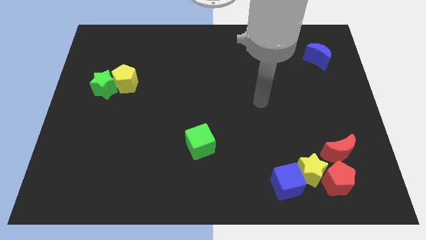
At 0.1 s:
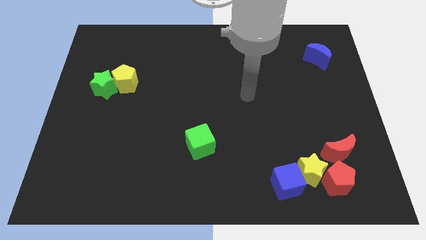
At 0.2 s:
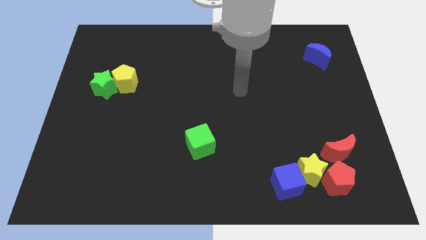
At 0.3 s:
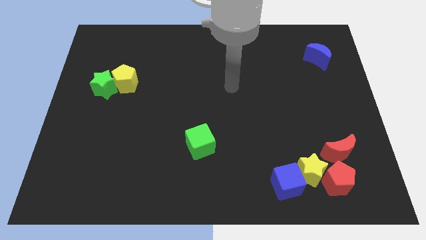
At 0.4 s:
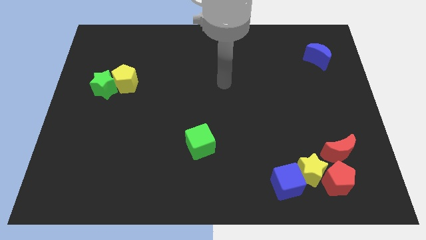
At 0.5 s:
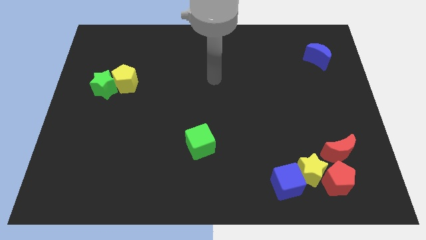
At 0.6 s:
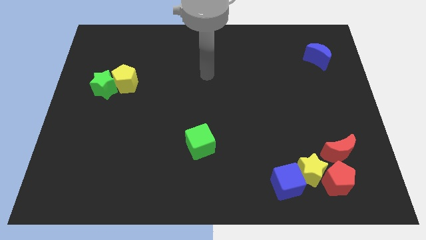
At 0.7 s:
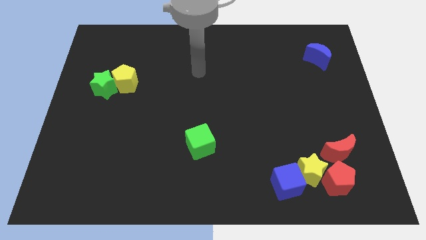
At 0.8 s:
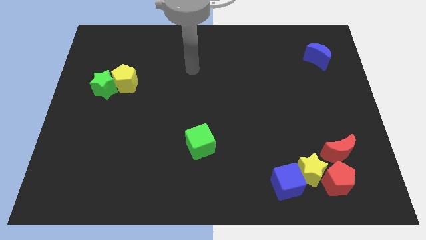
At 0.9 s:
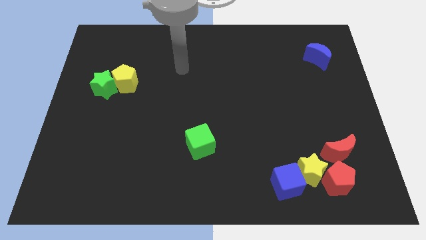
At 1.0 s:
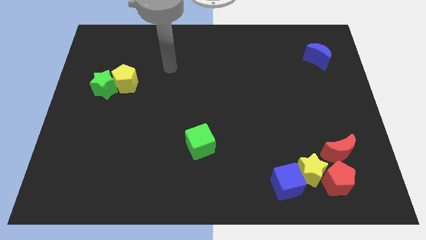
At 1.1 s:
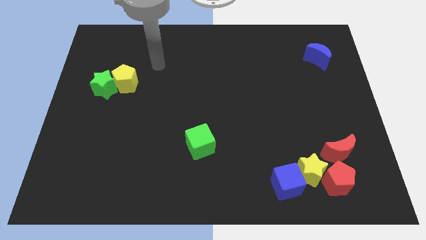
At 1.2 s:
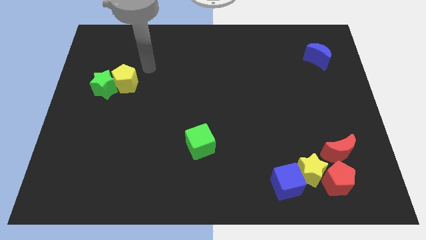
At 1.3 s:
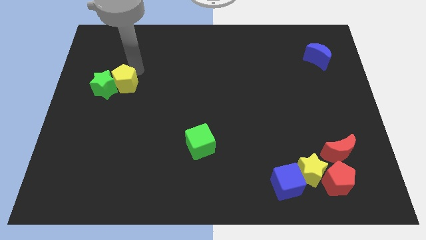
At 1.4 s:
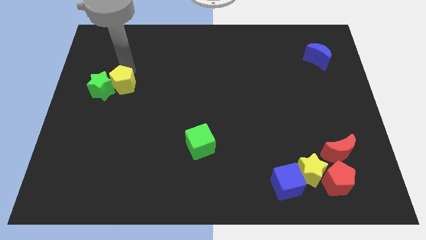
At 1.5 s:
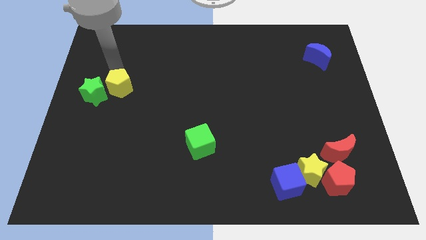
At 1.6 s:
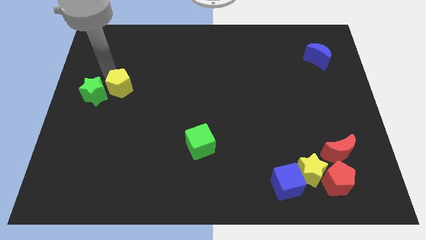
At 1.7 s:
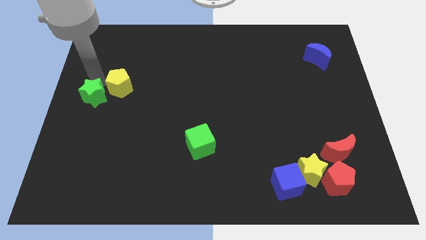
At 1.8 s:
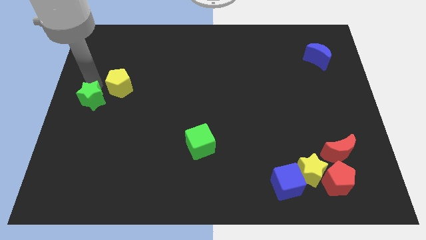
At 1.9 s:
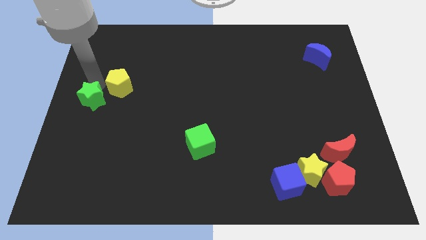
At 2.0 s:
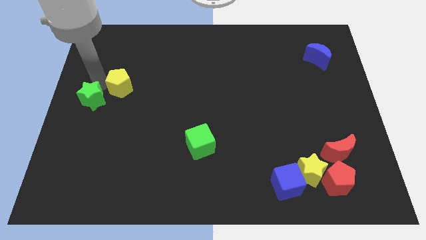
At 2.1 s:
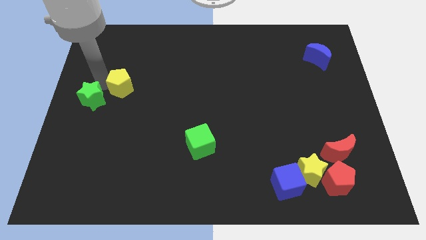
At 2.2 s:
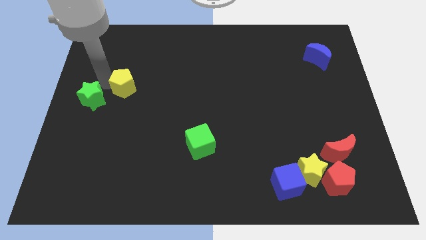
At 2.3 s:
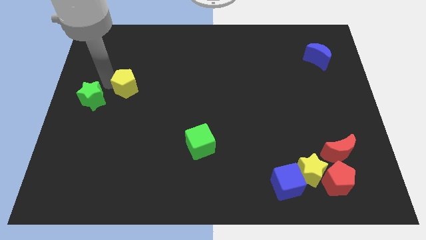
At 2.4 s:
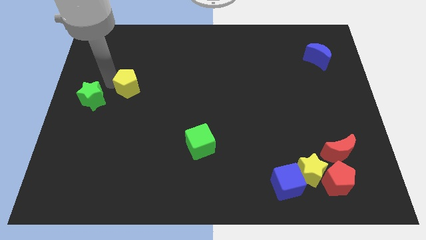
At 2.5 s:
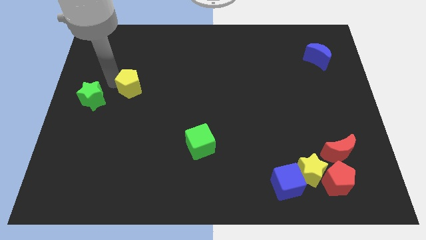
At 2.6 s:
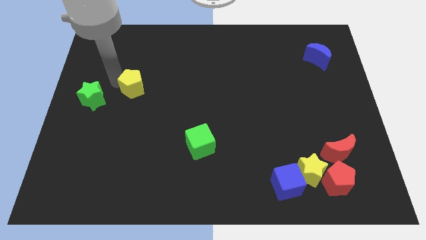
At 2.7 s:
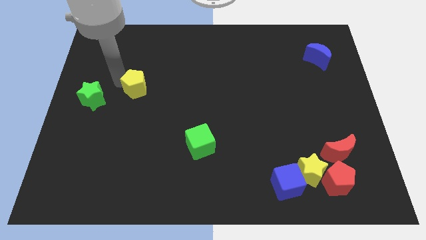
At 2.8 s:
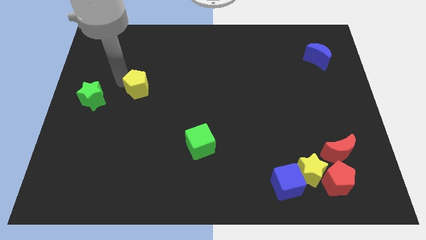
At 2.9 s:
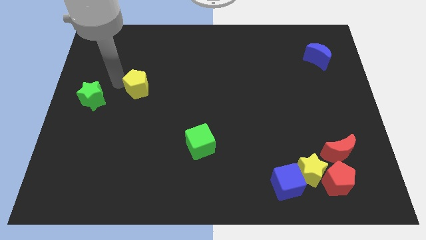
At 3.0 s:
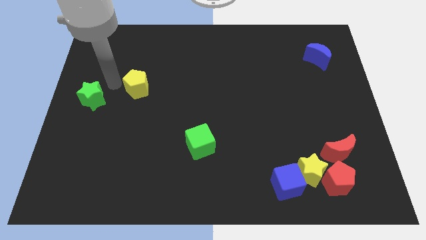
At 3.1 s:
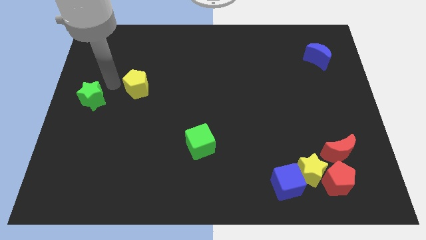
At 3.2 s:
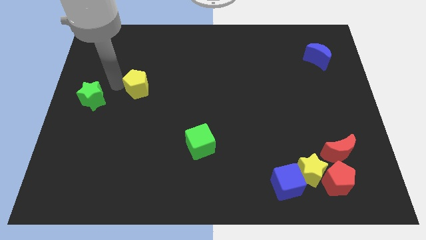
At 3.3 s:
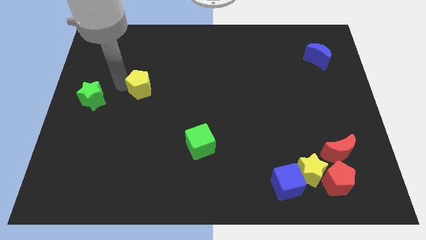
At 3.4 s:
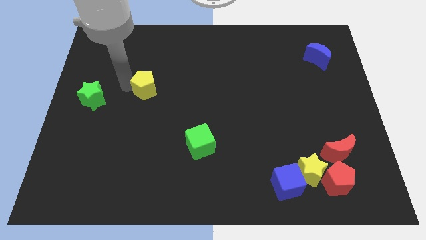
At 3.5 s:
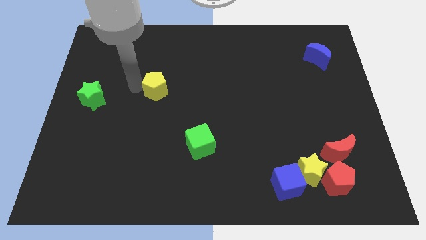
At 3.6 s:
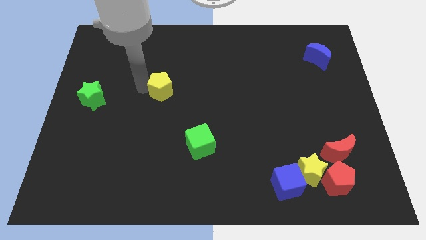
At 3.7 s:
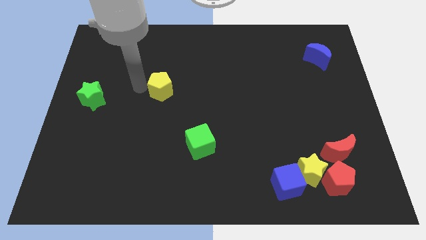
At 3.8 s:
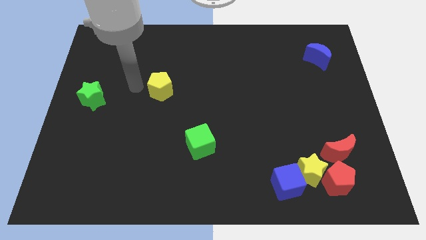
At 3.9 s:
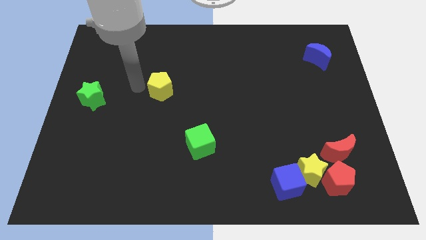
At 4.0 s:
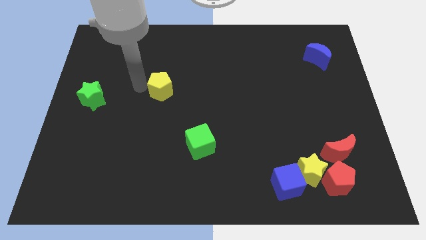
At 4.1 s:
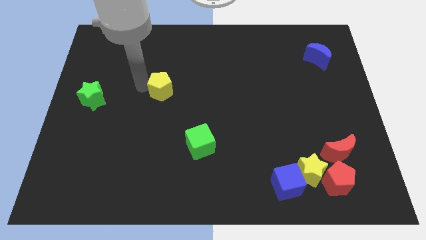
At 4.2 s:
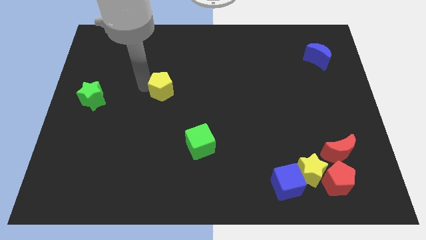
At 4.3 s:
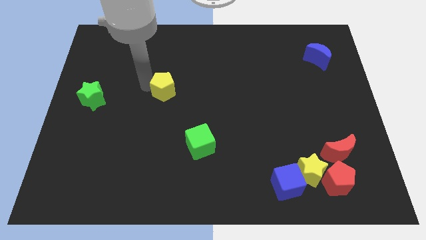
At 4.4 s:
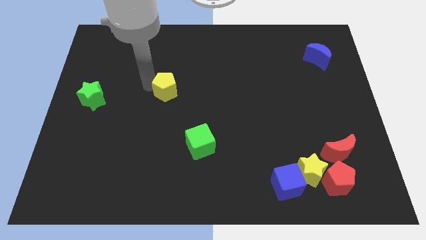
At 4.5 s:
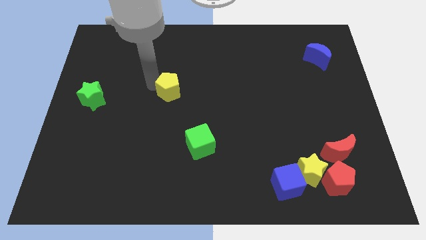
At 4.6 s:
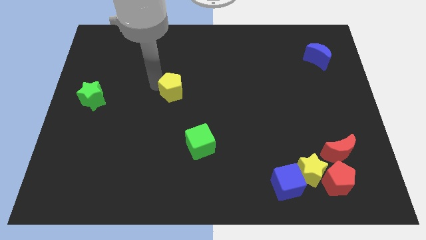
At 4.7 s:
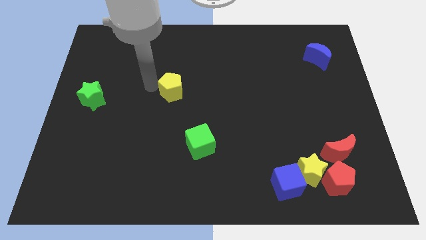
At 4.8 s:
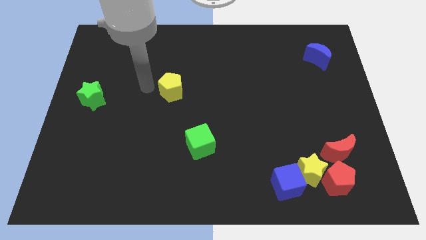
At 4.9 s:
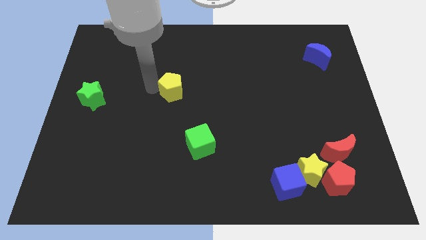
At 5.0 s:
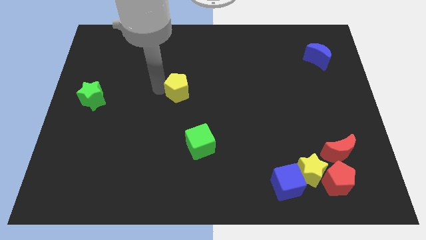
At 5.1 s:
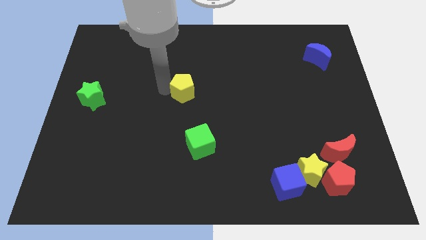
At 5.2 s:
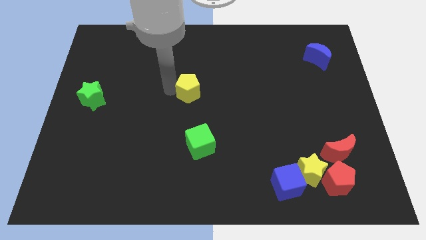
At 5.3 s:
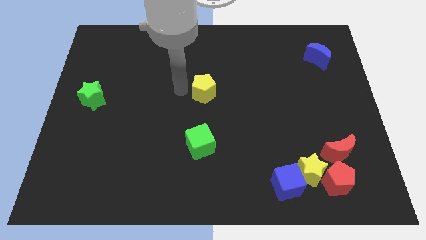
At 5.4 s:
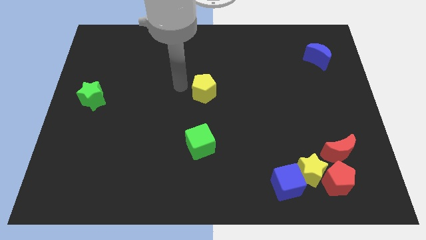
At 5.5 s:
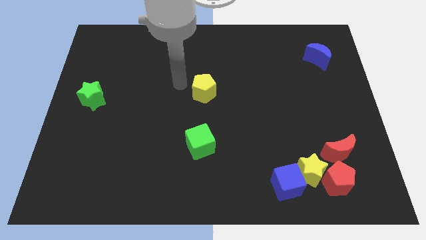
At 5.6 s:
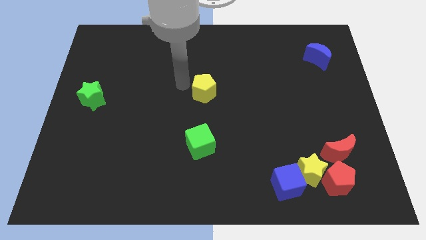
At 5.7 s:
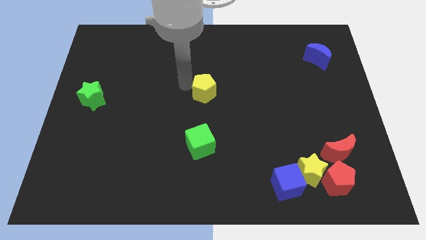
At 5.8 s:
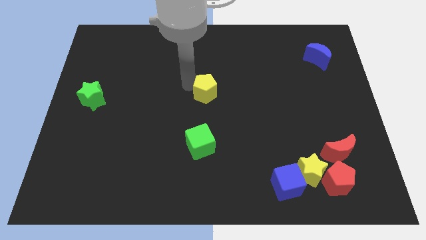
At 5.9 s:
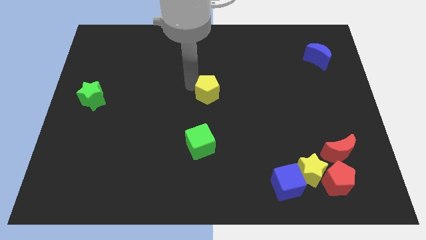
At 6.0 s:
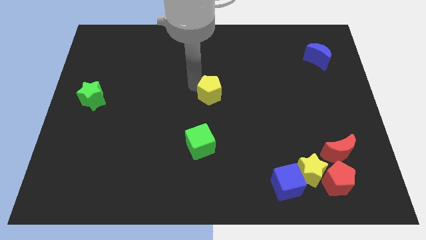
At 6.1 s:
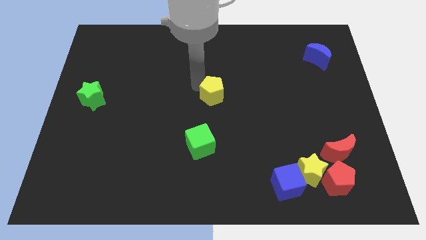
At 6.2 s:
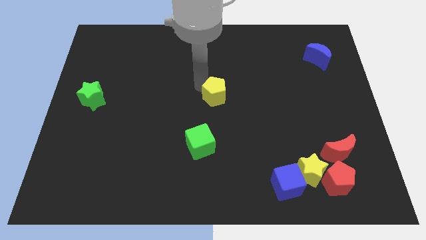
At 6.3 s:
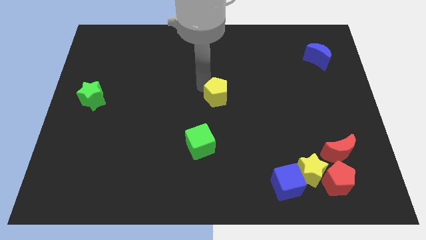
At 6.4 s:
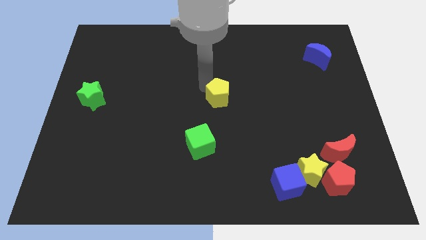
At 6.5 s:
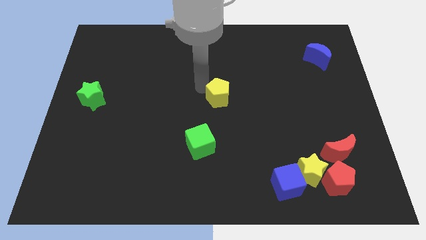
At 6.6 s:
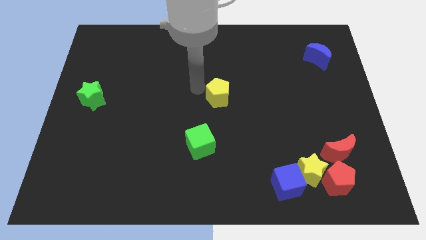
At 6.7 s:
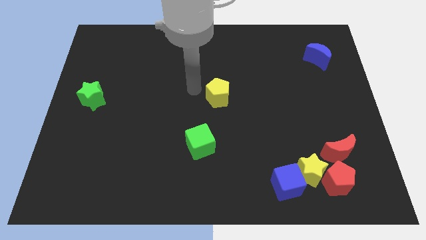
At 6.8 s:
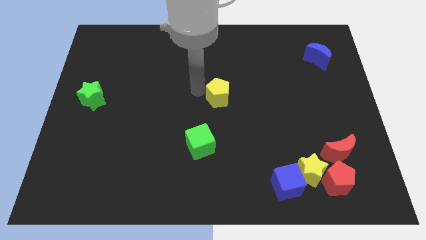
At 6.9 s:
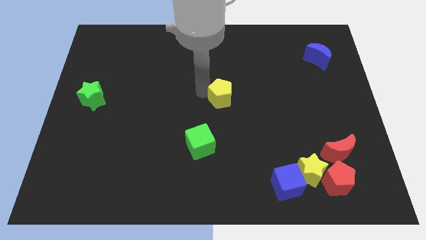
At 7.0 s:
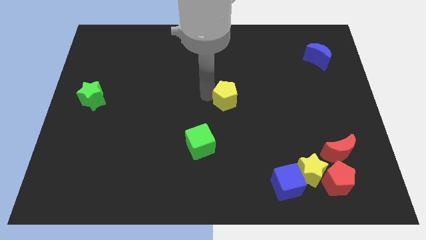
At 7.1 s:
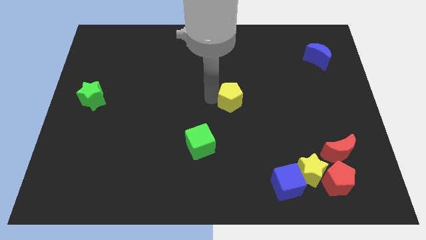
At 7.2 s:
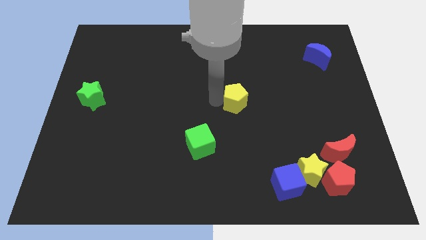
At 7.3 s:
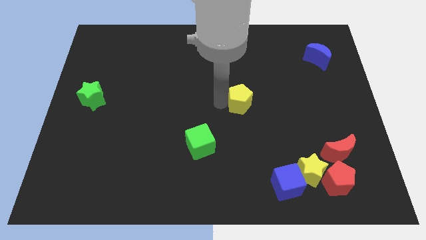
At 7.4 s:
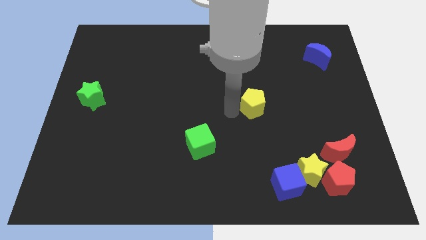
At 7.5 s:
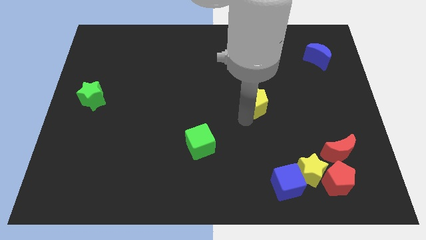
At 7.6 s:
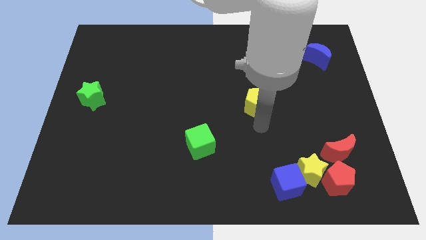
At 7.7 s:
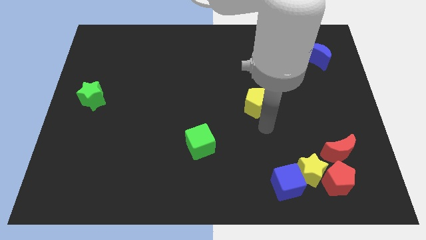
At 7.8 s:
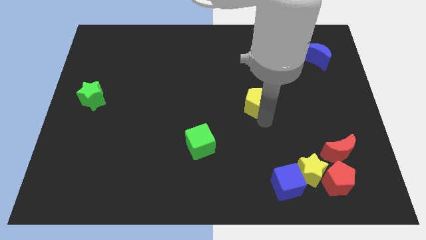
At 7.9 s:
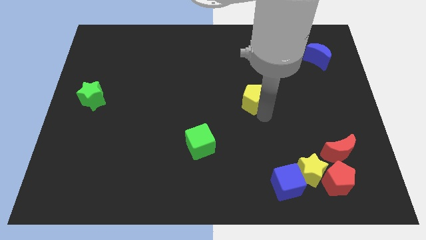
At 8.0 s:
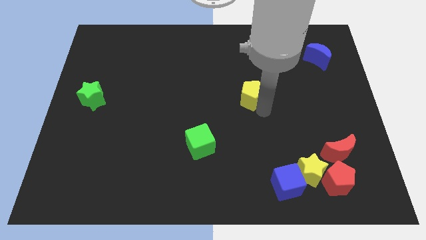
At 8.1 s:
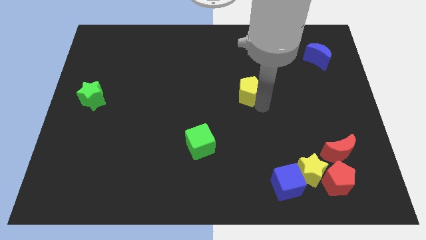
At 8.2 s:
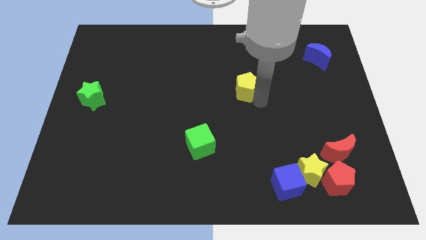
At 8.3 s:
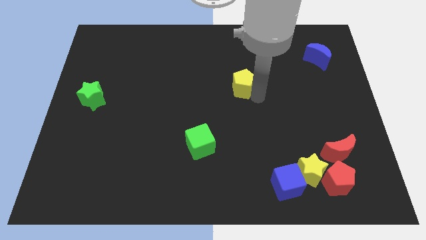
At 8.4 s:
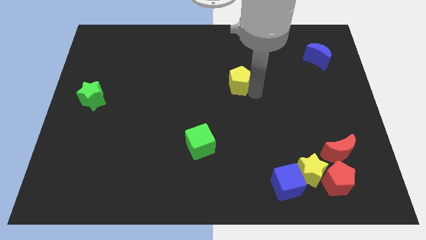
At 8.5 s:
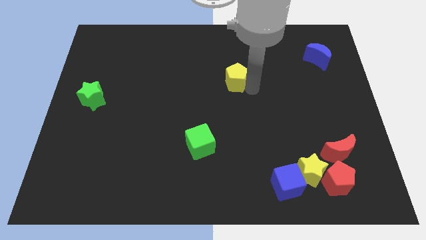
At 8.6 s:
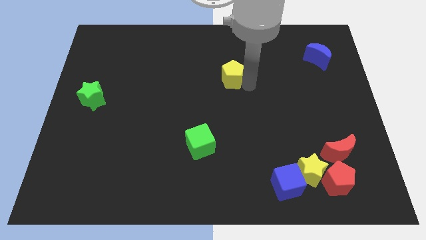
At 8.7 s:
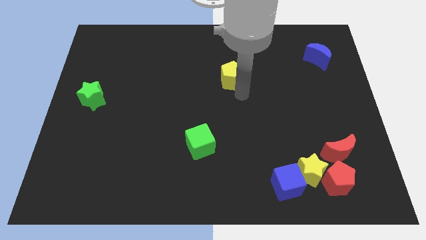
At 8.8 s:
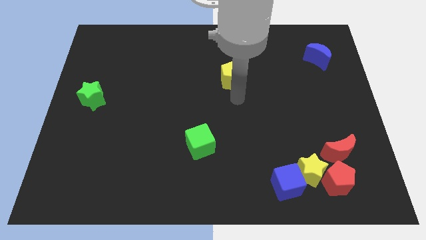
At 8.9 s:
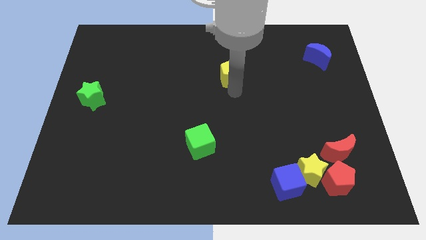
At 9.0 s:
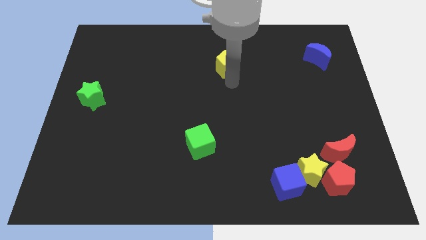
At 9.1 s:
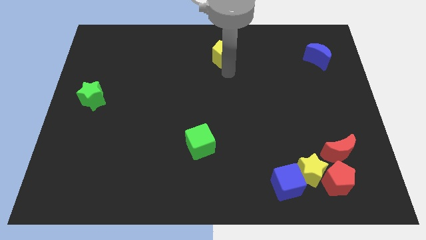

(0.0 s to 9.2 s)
push the yellow pentagon to the towards your base
